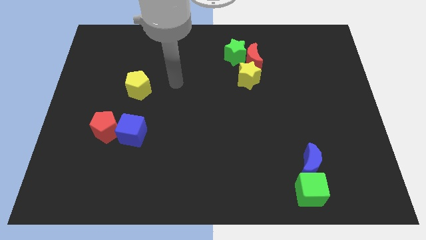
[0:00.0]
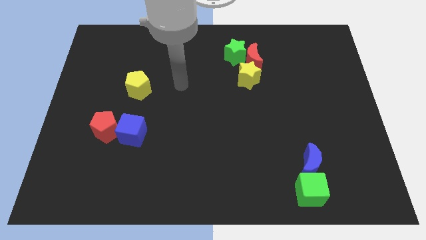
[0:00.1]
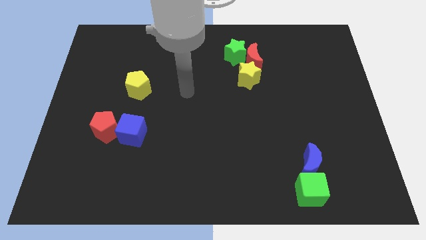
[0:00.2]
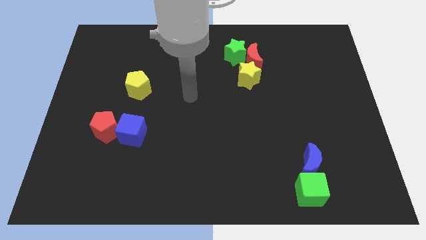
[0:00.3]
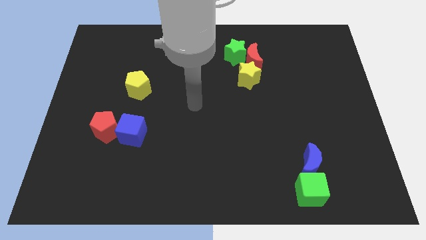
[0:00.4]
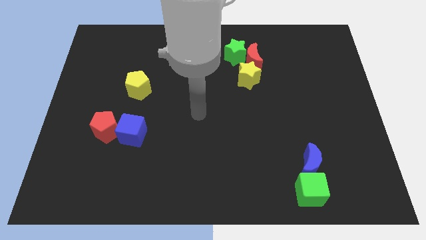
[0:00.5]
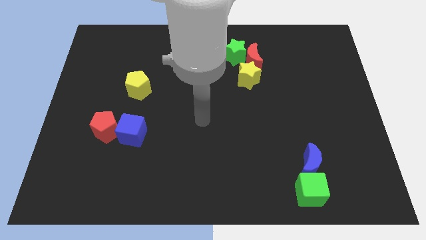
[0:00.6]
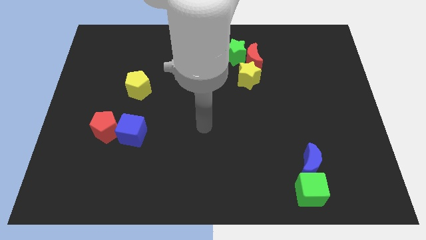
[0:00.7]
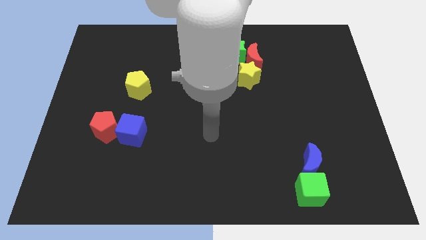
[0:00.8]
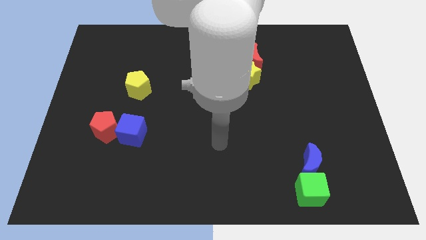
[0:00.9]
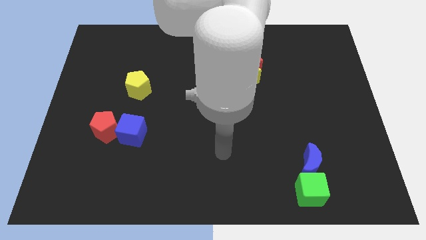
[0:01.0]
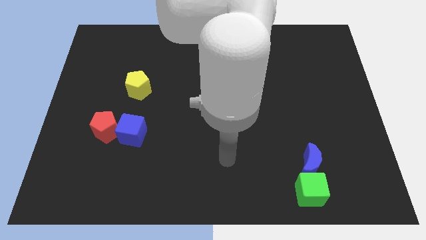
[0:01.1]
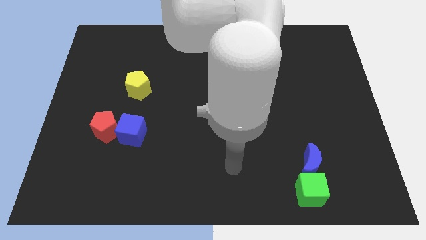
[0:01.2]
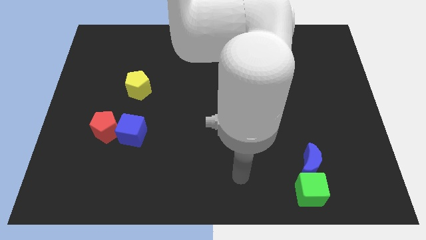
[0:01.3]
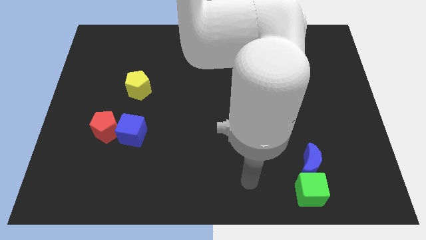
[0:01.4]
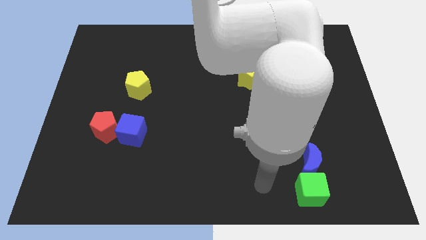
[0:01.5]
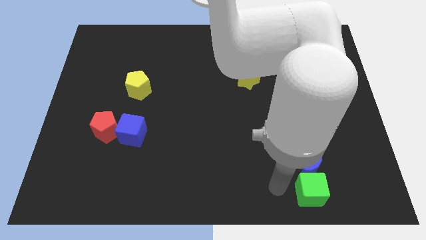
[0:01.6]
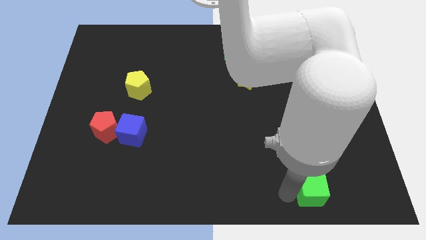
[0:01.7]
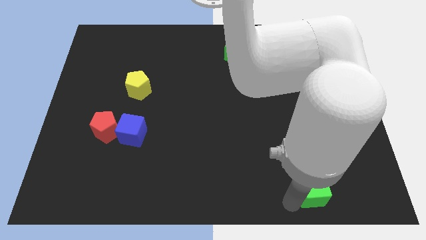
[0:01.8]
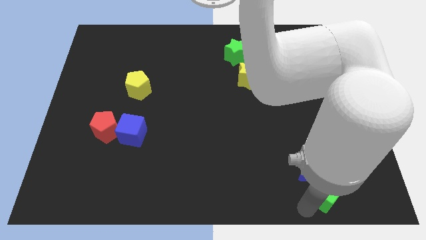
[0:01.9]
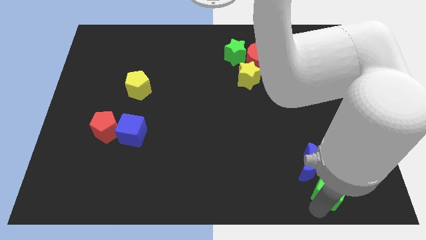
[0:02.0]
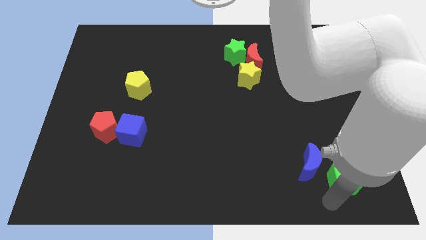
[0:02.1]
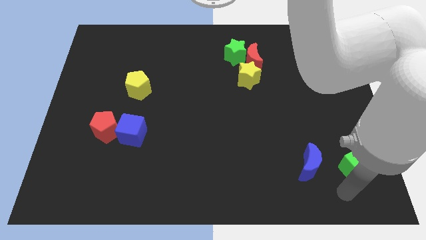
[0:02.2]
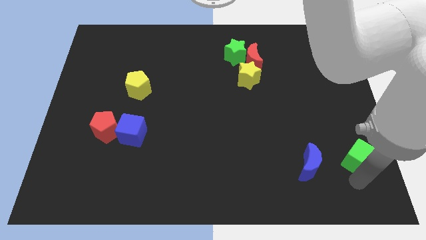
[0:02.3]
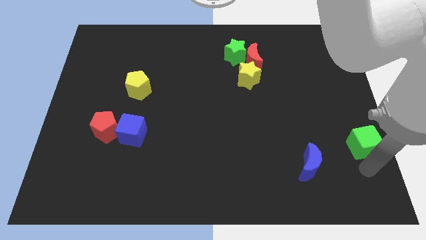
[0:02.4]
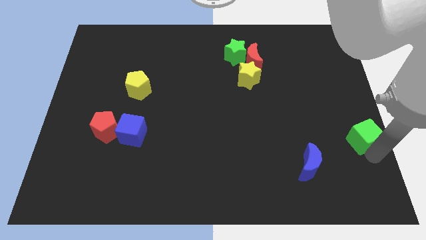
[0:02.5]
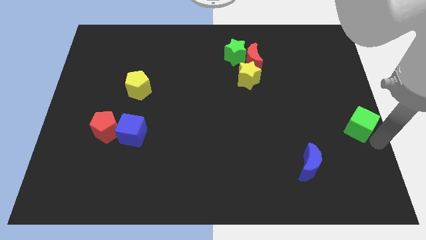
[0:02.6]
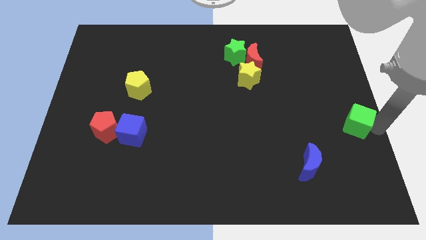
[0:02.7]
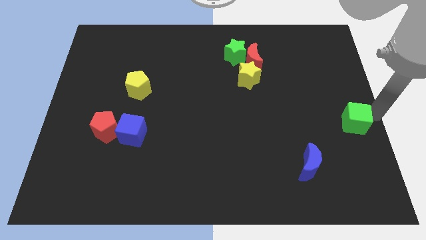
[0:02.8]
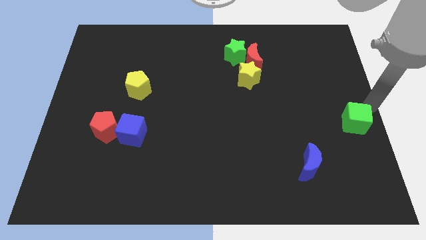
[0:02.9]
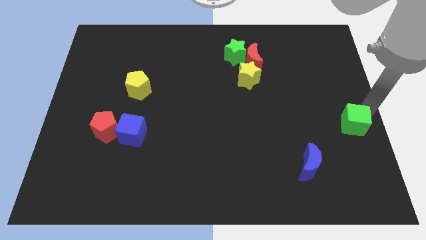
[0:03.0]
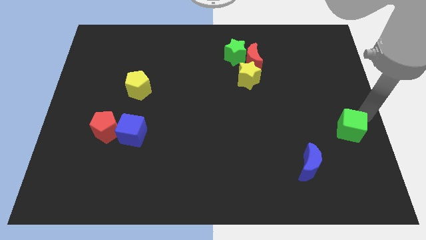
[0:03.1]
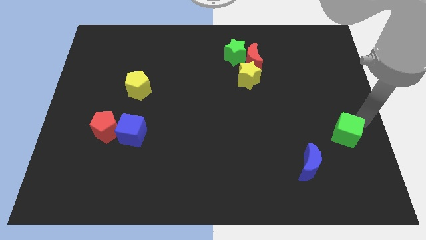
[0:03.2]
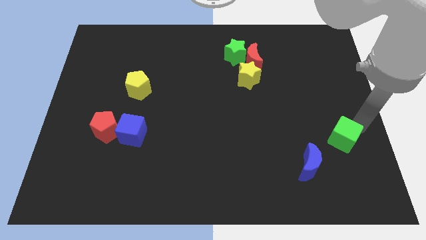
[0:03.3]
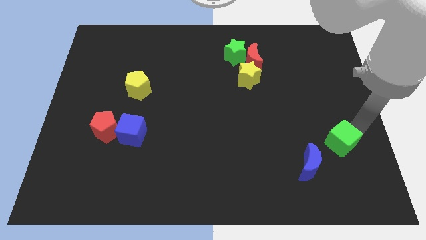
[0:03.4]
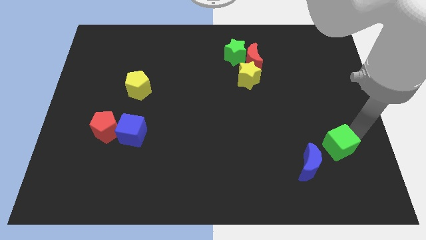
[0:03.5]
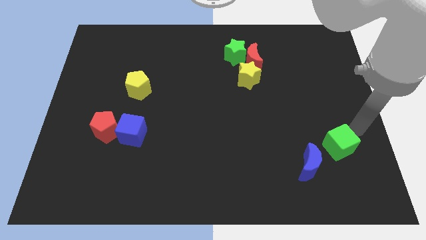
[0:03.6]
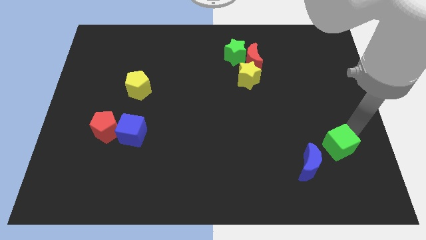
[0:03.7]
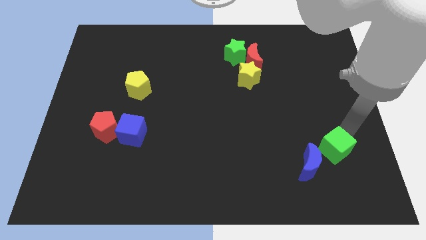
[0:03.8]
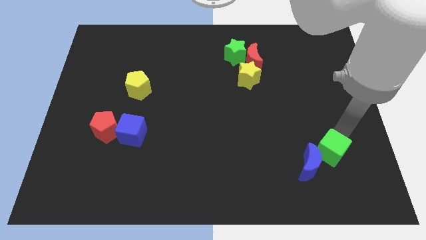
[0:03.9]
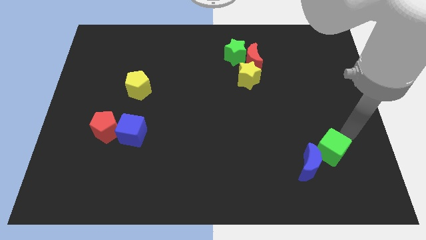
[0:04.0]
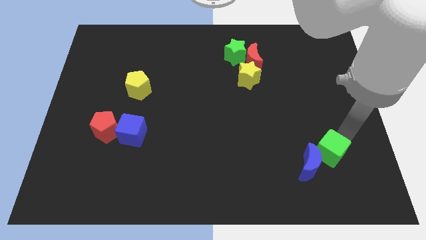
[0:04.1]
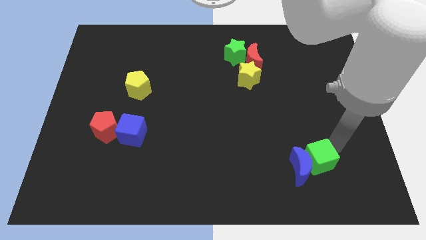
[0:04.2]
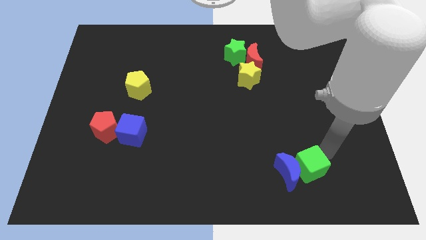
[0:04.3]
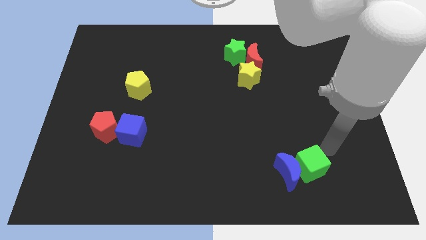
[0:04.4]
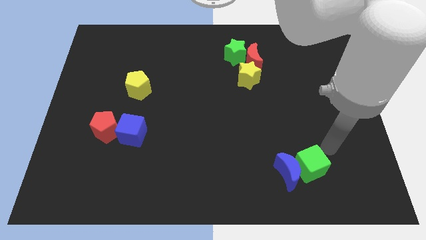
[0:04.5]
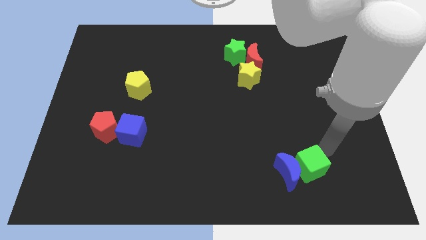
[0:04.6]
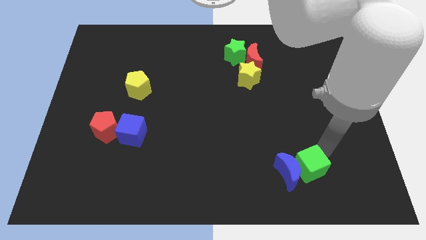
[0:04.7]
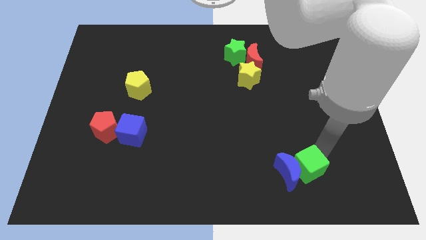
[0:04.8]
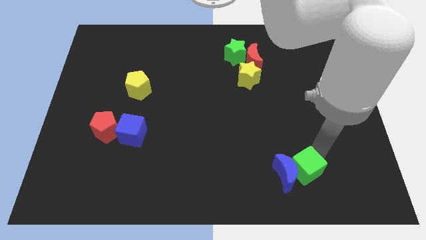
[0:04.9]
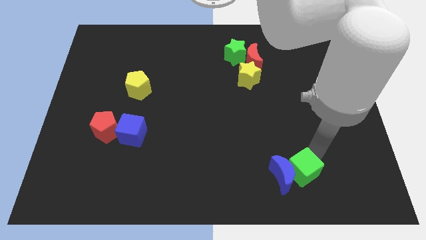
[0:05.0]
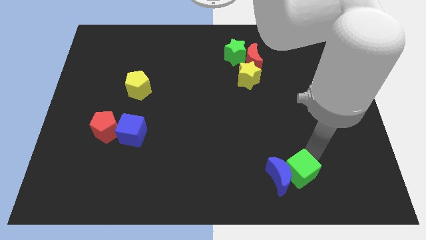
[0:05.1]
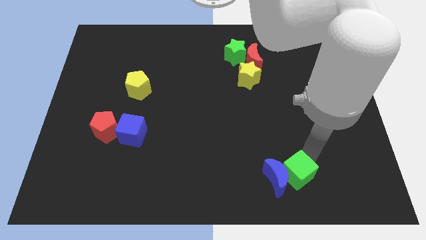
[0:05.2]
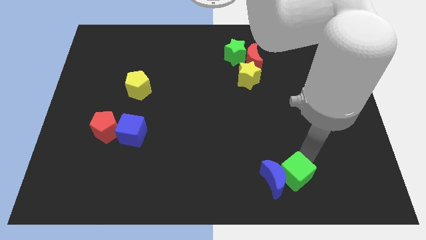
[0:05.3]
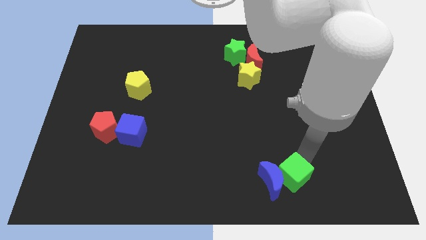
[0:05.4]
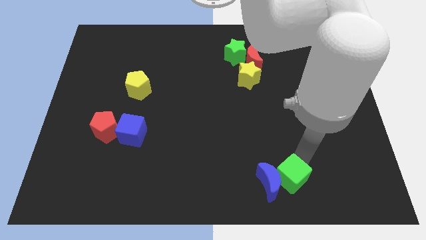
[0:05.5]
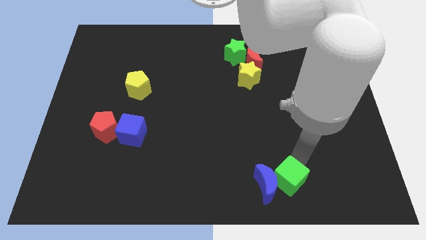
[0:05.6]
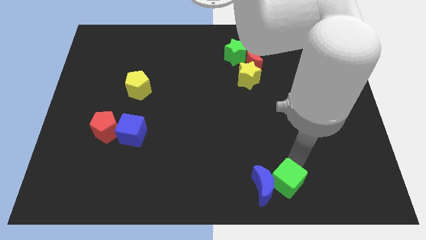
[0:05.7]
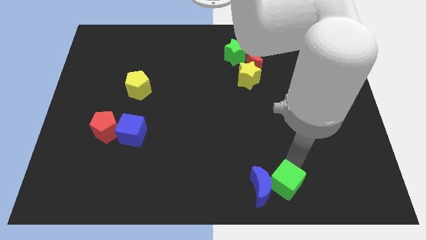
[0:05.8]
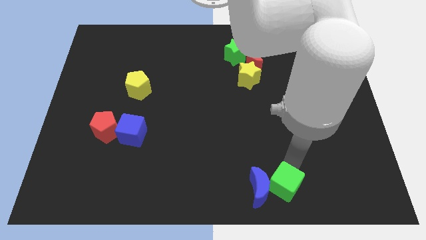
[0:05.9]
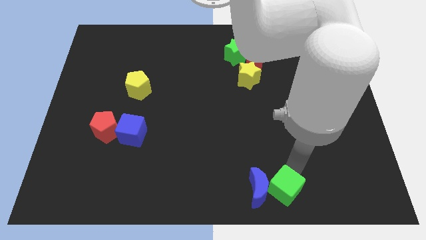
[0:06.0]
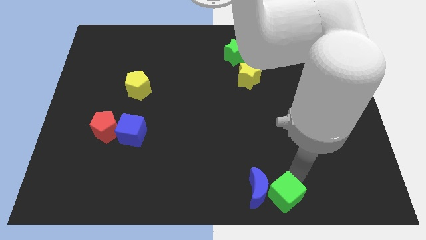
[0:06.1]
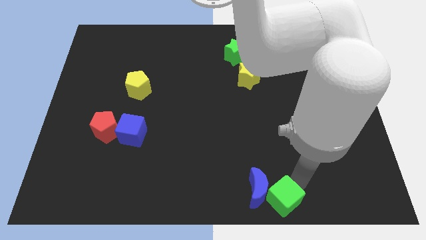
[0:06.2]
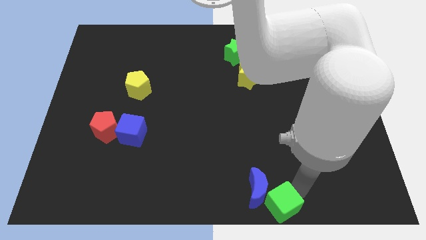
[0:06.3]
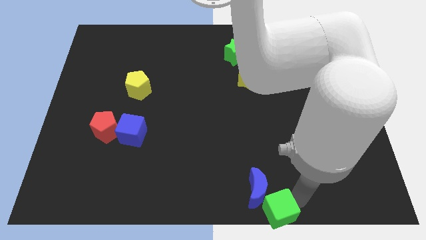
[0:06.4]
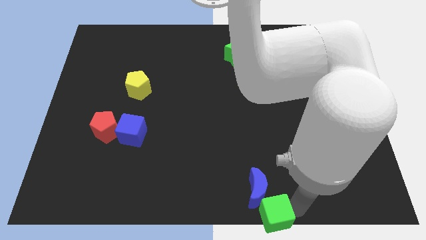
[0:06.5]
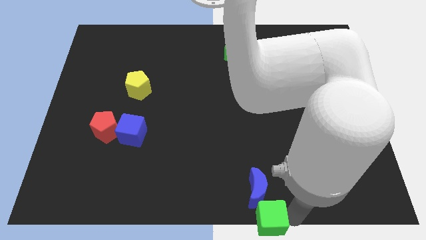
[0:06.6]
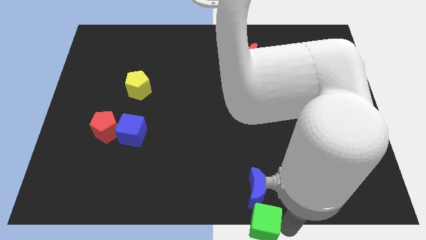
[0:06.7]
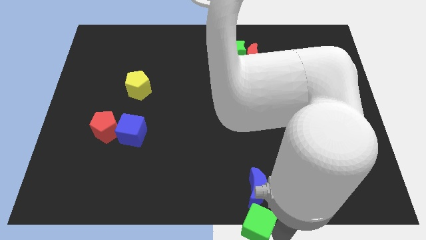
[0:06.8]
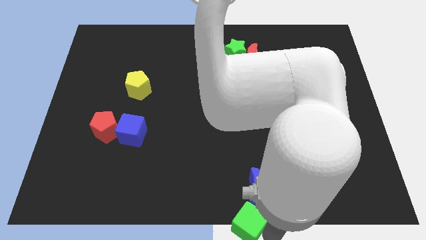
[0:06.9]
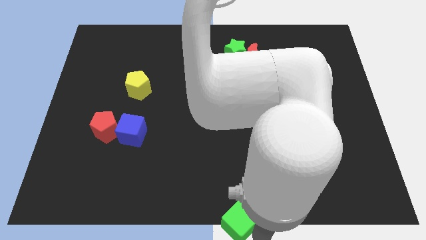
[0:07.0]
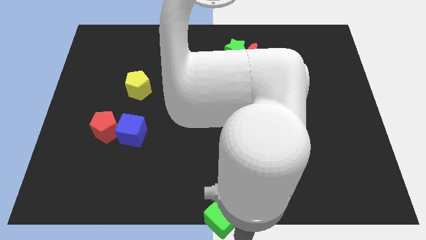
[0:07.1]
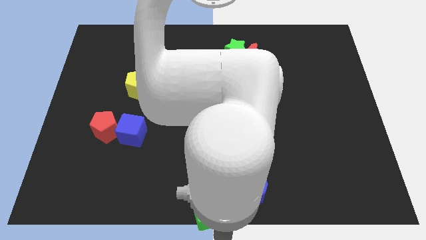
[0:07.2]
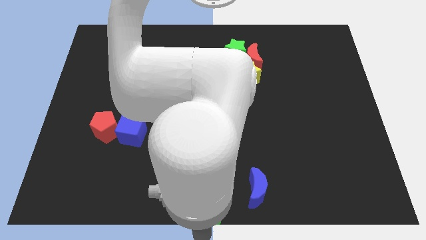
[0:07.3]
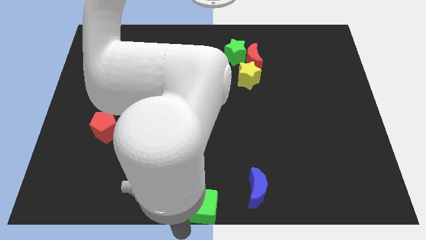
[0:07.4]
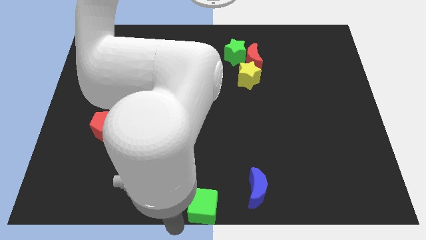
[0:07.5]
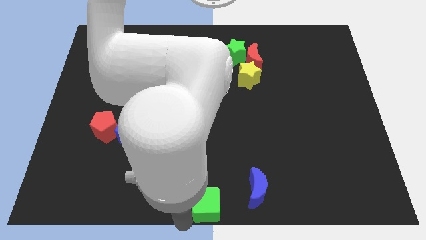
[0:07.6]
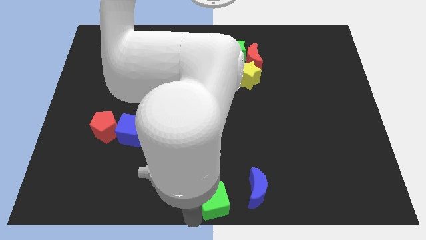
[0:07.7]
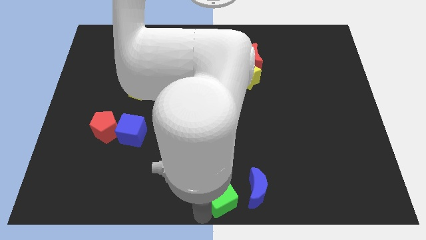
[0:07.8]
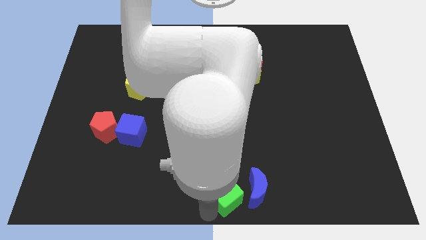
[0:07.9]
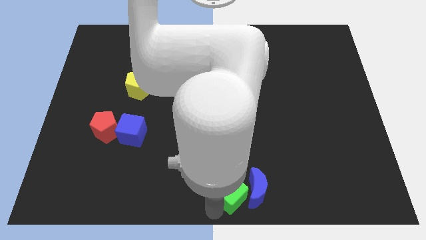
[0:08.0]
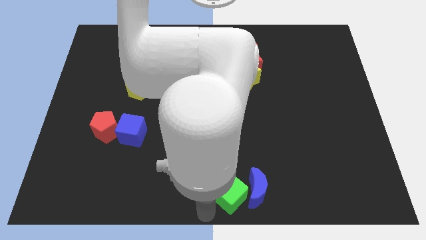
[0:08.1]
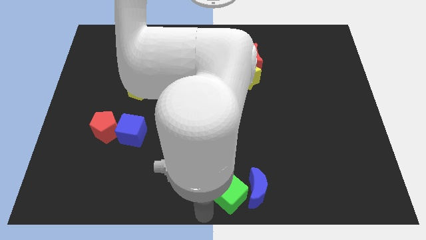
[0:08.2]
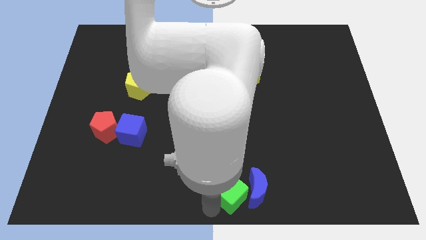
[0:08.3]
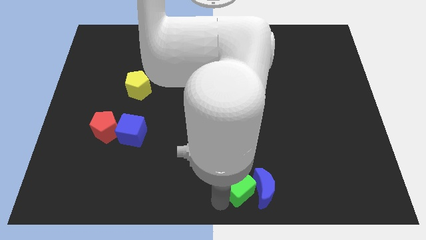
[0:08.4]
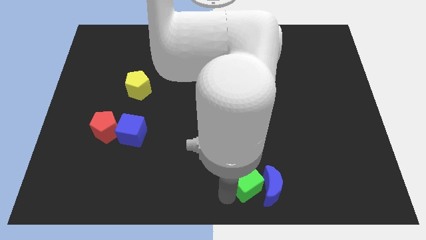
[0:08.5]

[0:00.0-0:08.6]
slide the green cube a bit up and then left
